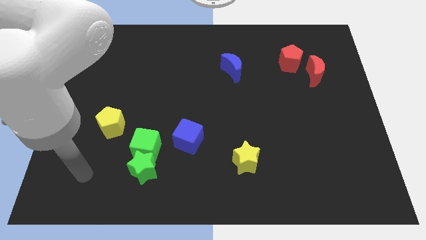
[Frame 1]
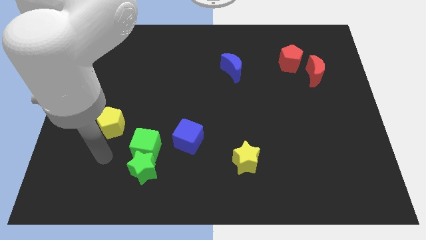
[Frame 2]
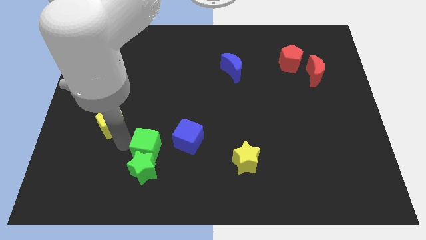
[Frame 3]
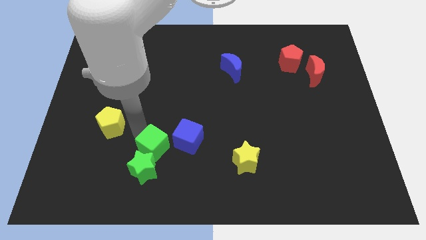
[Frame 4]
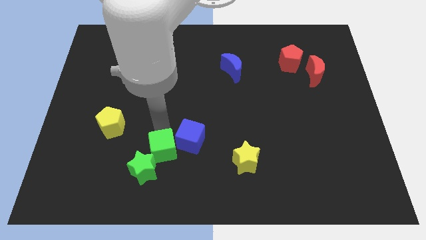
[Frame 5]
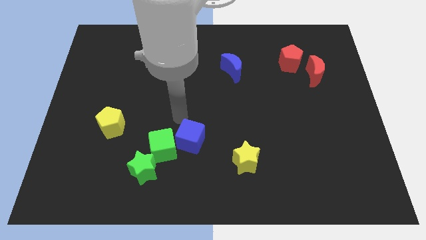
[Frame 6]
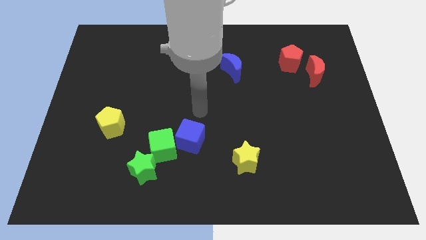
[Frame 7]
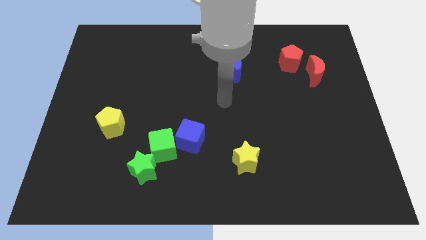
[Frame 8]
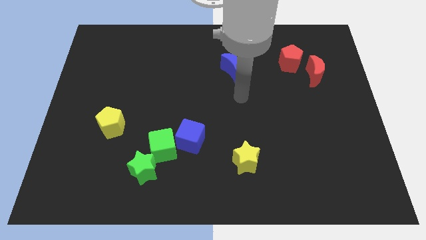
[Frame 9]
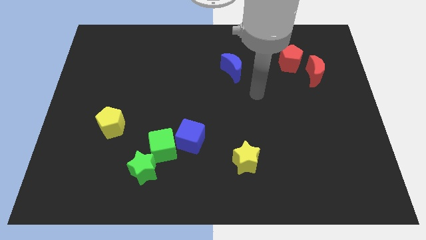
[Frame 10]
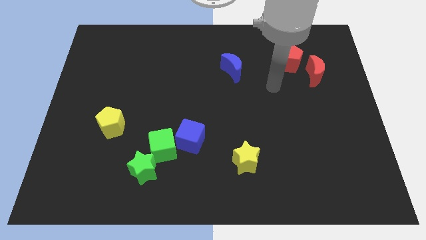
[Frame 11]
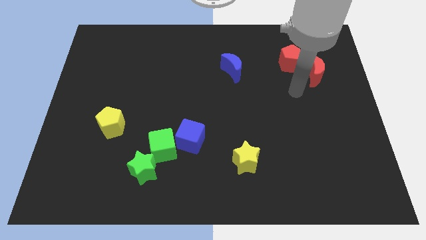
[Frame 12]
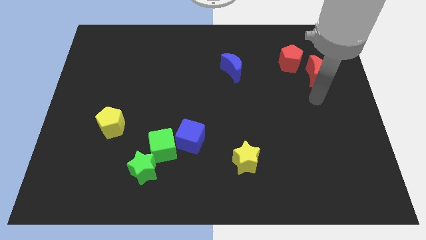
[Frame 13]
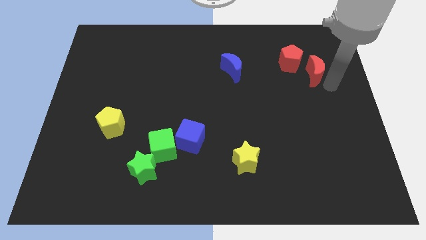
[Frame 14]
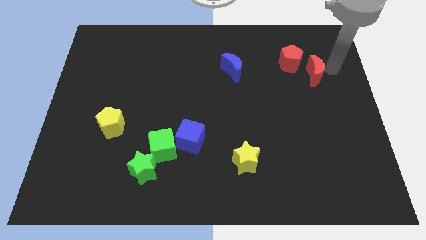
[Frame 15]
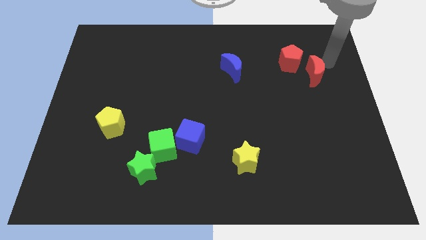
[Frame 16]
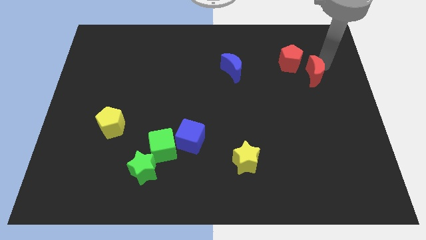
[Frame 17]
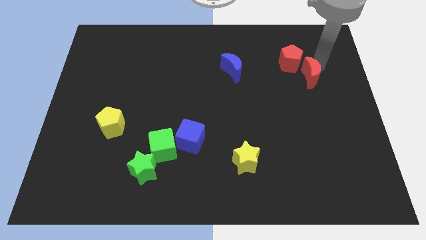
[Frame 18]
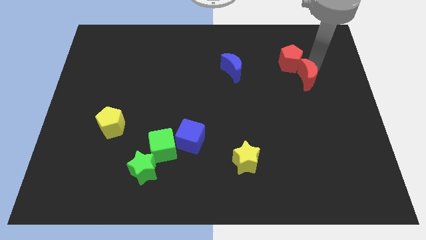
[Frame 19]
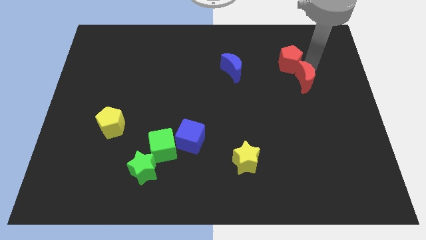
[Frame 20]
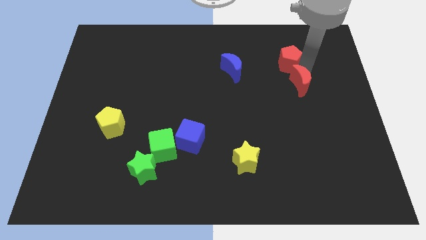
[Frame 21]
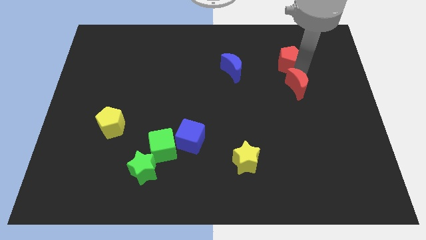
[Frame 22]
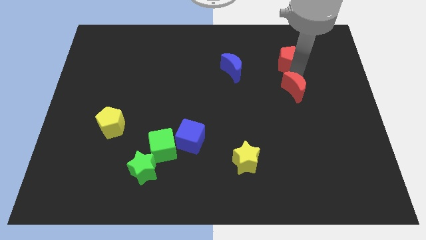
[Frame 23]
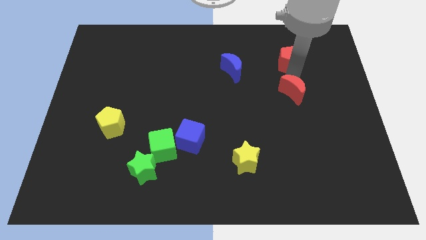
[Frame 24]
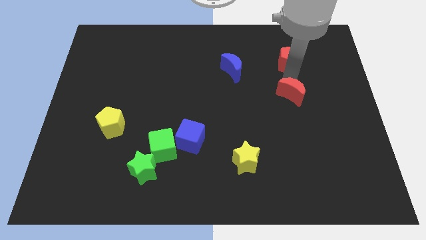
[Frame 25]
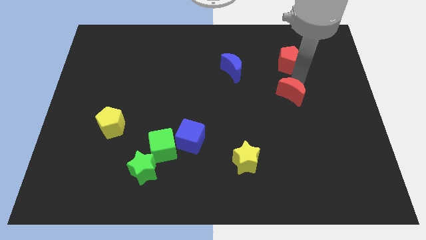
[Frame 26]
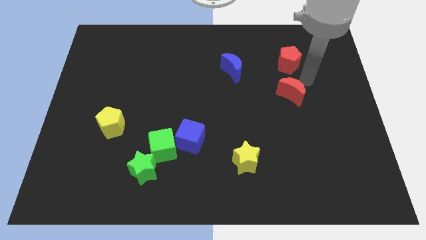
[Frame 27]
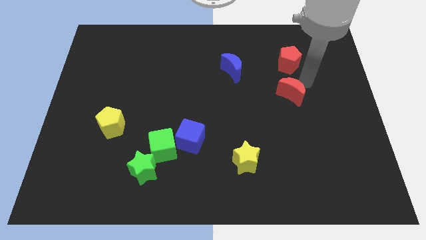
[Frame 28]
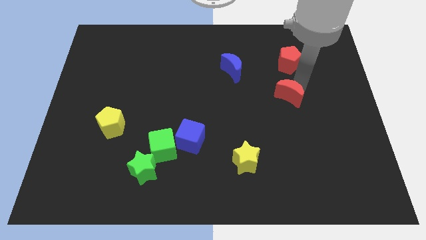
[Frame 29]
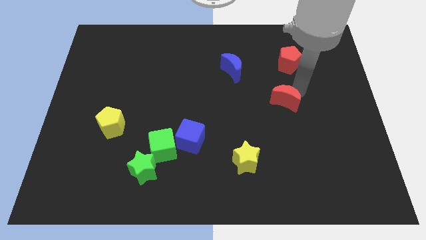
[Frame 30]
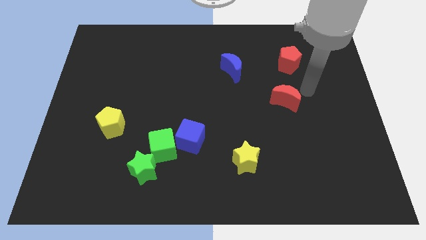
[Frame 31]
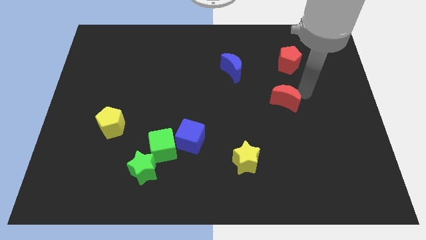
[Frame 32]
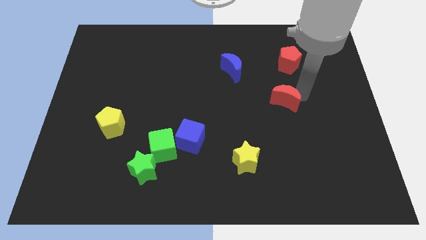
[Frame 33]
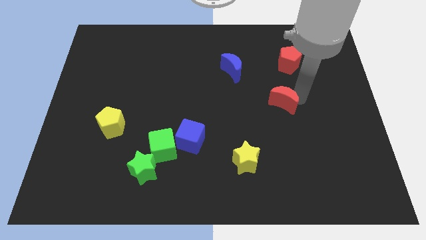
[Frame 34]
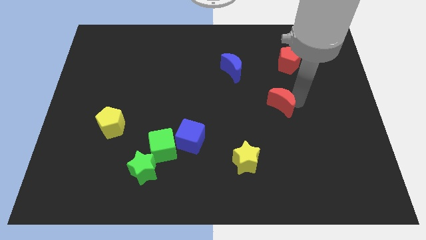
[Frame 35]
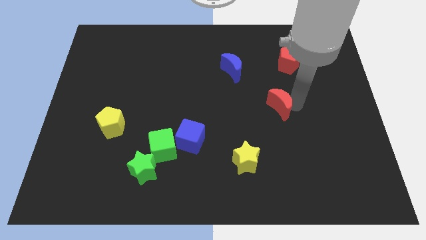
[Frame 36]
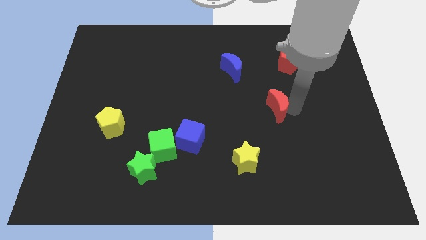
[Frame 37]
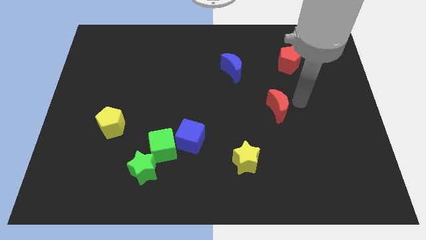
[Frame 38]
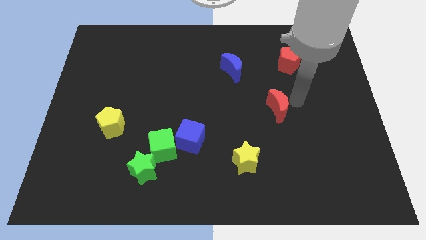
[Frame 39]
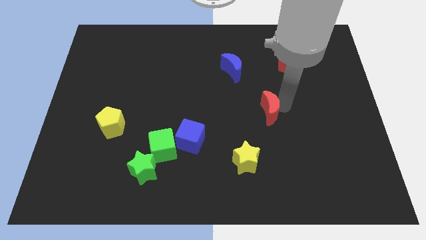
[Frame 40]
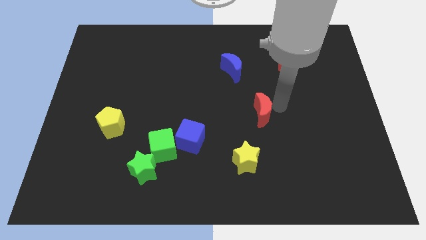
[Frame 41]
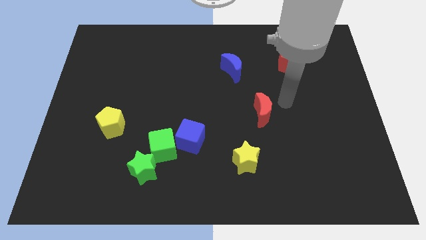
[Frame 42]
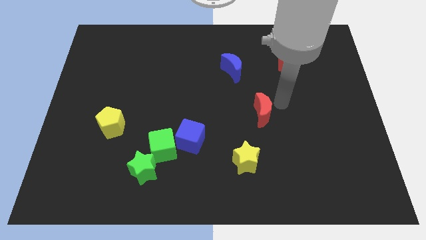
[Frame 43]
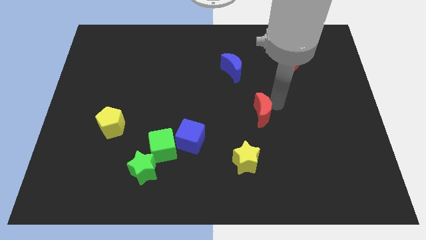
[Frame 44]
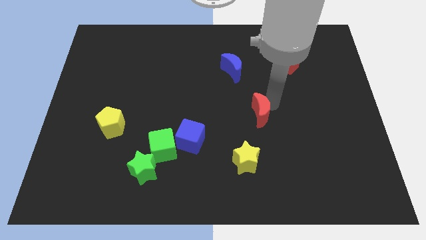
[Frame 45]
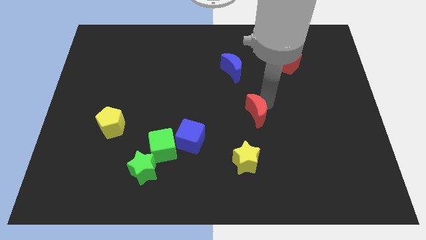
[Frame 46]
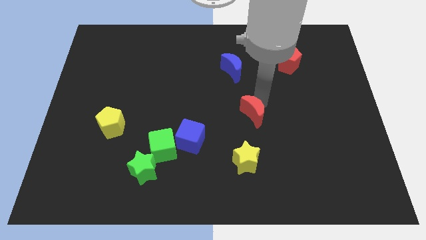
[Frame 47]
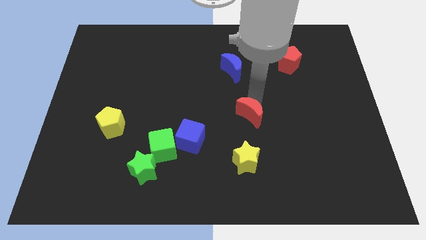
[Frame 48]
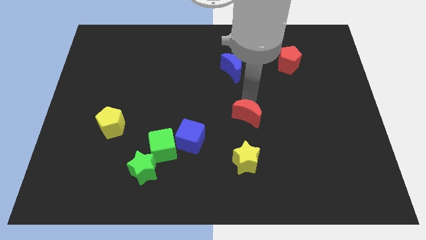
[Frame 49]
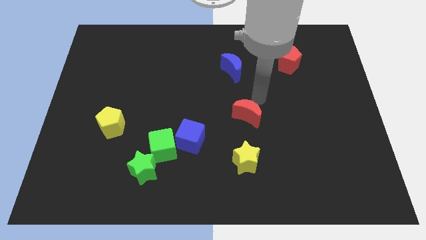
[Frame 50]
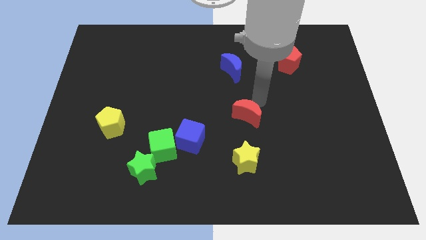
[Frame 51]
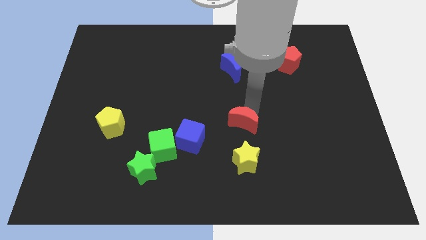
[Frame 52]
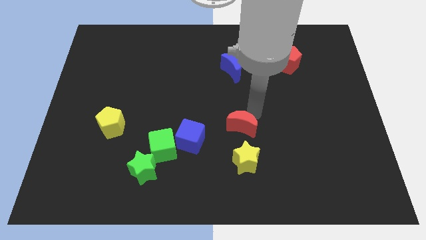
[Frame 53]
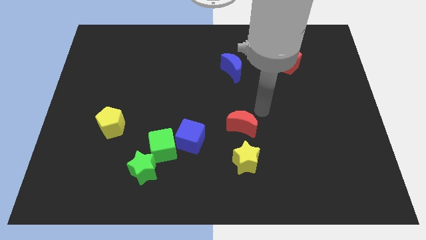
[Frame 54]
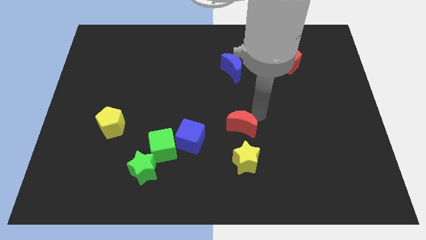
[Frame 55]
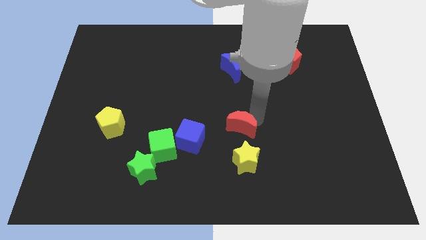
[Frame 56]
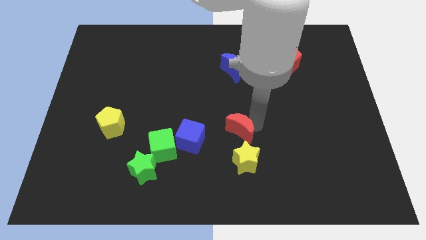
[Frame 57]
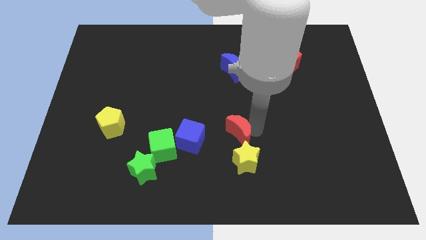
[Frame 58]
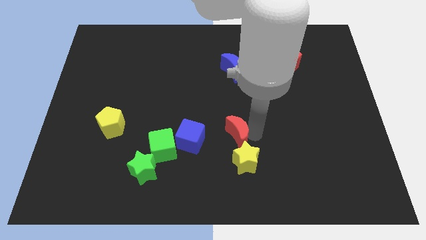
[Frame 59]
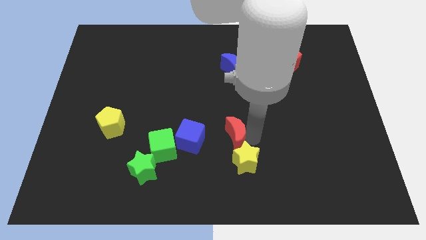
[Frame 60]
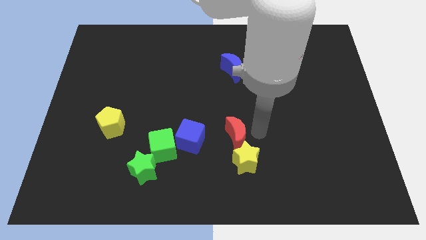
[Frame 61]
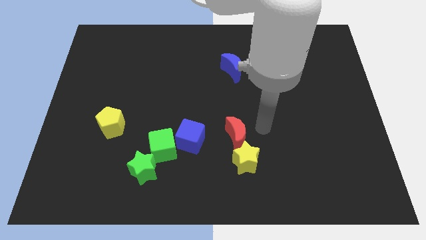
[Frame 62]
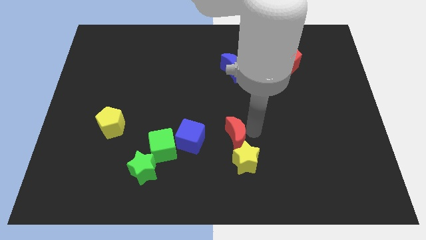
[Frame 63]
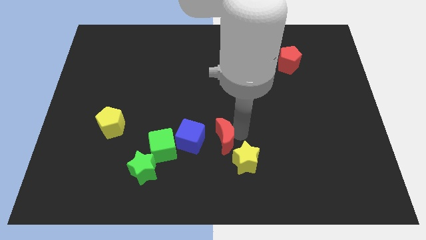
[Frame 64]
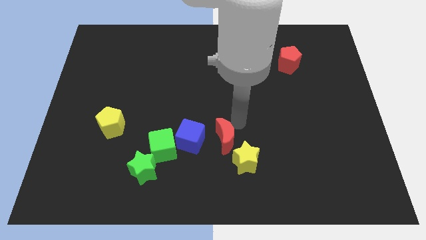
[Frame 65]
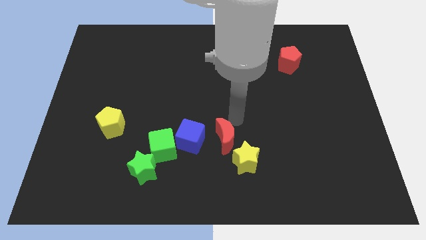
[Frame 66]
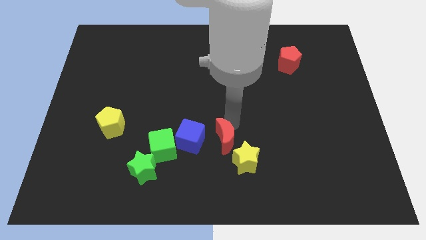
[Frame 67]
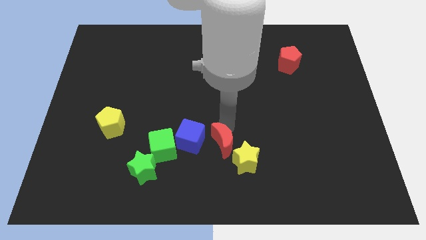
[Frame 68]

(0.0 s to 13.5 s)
put the red moon to the bottom right side of the blue cube

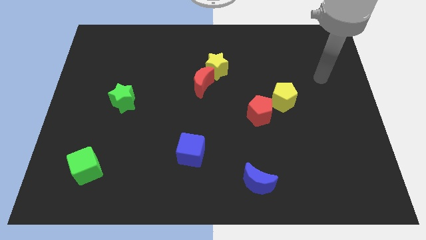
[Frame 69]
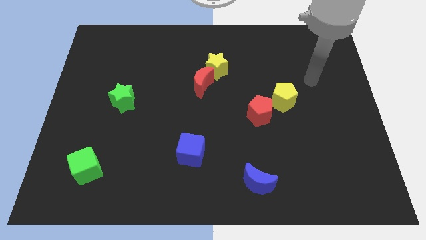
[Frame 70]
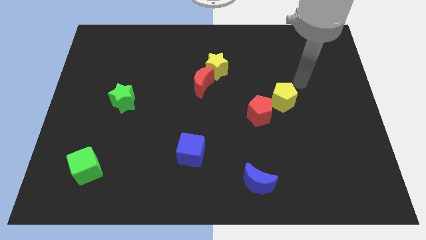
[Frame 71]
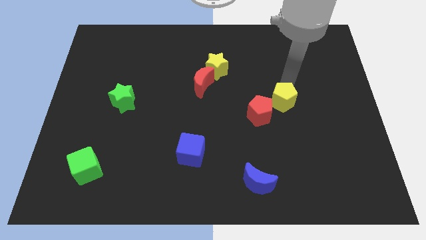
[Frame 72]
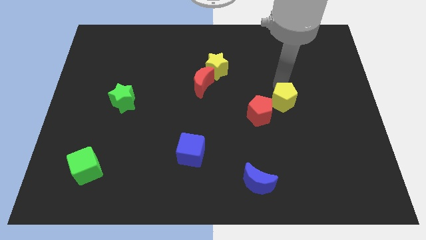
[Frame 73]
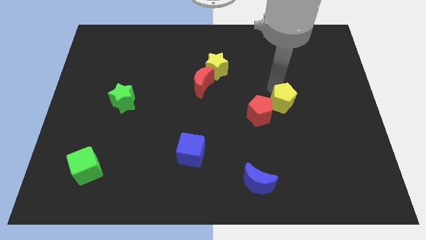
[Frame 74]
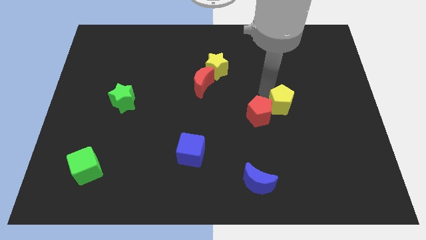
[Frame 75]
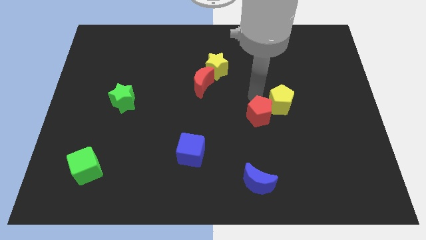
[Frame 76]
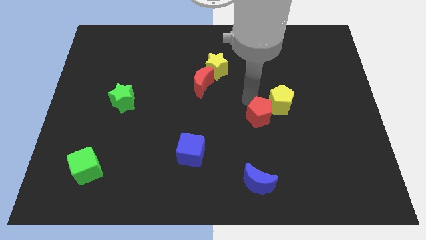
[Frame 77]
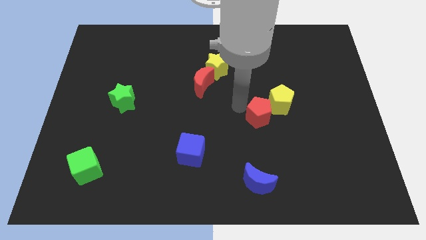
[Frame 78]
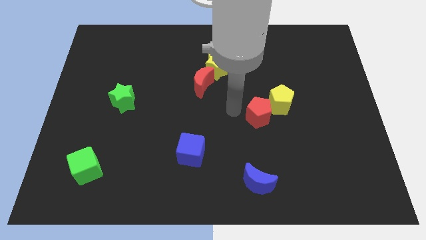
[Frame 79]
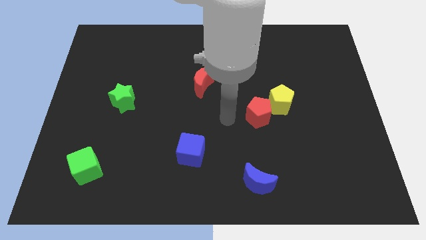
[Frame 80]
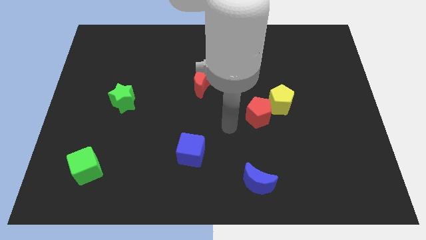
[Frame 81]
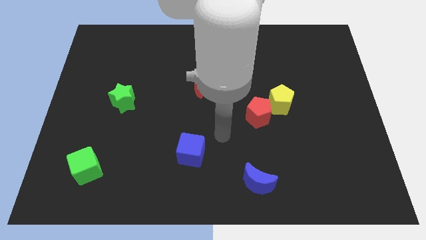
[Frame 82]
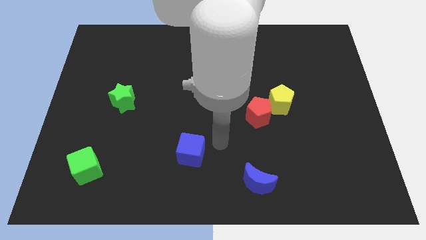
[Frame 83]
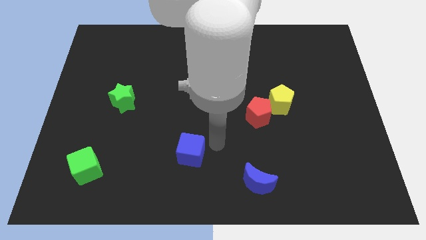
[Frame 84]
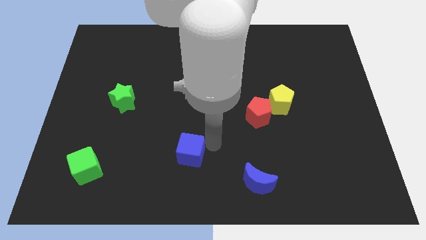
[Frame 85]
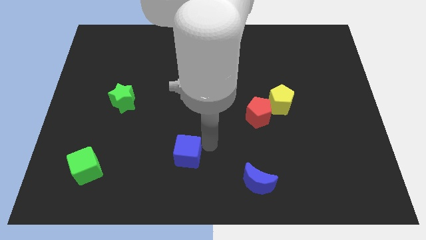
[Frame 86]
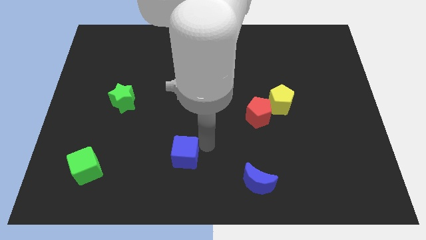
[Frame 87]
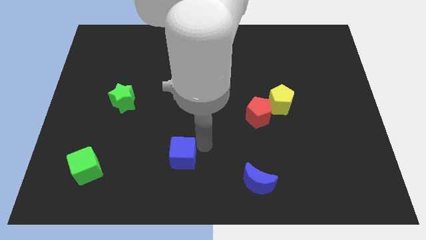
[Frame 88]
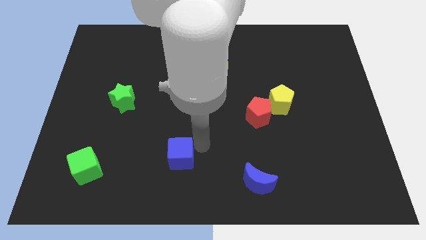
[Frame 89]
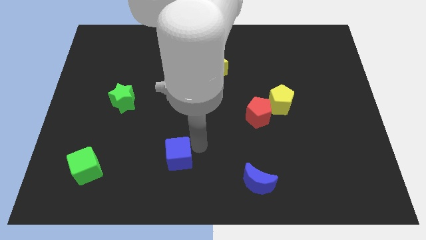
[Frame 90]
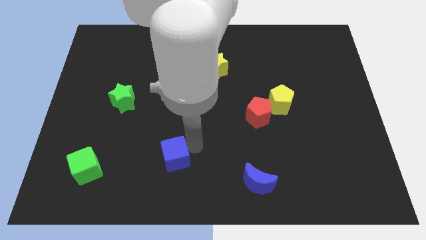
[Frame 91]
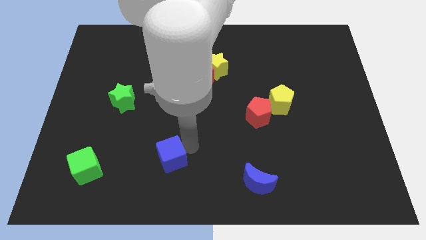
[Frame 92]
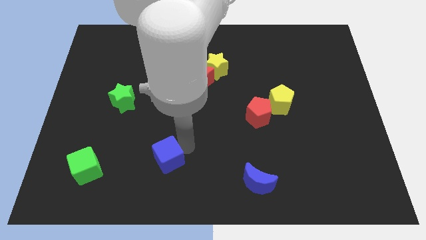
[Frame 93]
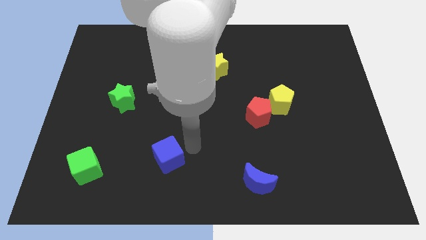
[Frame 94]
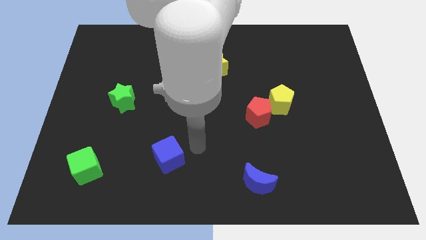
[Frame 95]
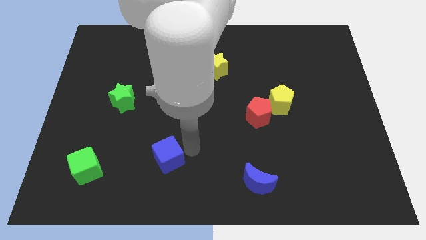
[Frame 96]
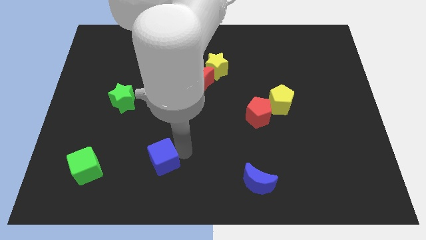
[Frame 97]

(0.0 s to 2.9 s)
push the blue cube to the right side of the green cube
